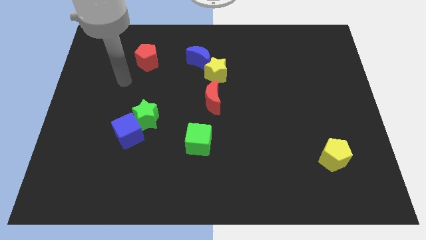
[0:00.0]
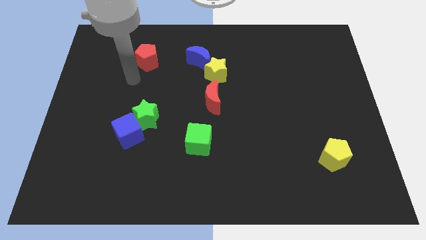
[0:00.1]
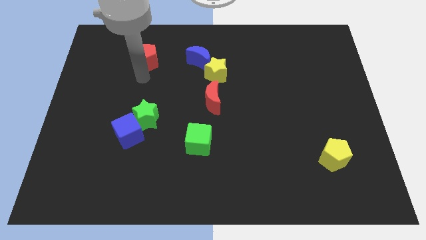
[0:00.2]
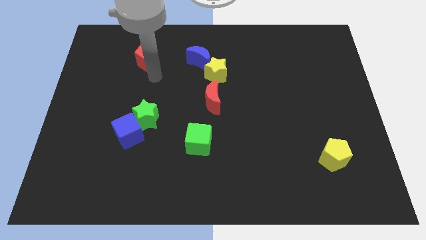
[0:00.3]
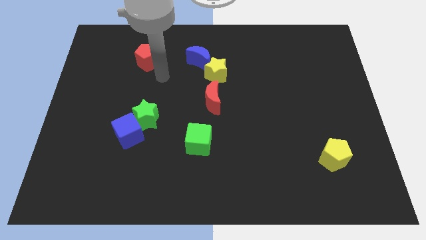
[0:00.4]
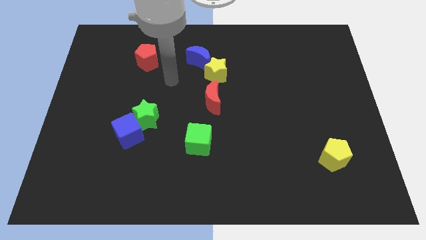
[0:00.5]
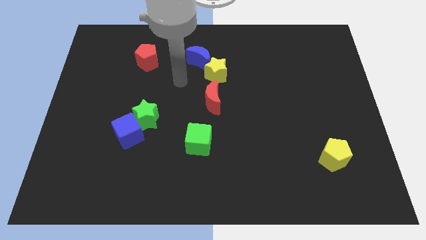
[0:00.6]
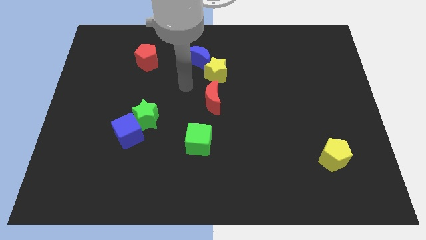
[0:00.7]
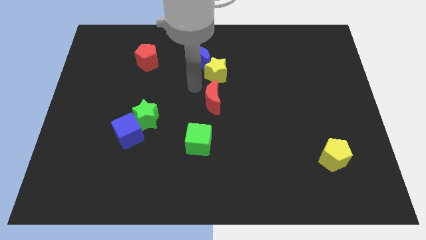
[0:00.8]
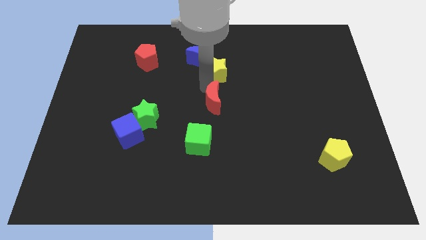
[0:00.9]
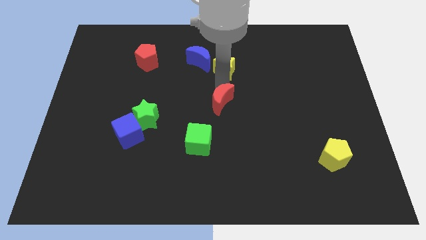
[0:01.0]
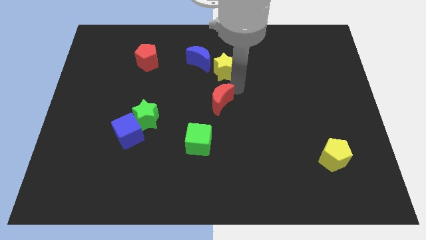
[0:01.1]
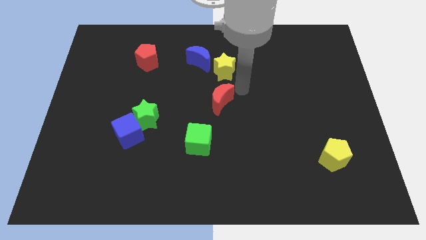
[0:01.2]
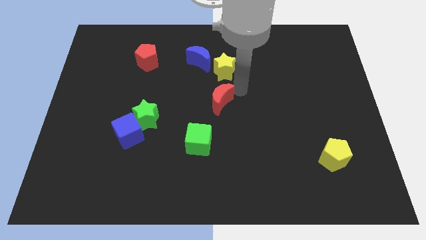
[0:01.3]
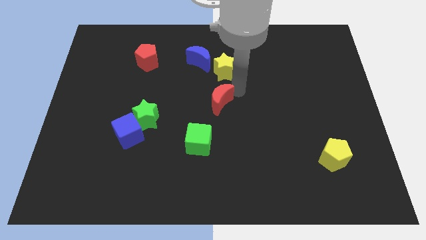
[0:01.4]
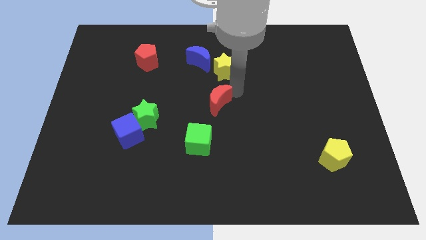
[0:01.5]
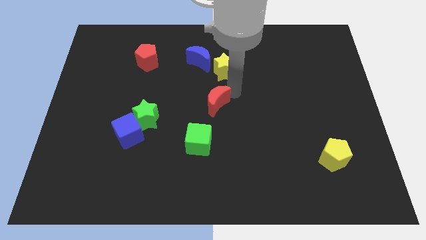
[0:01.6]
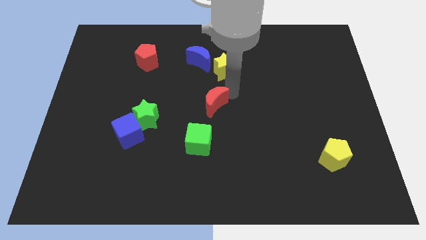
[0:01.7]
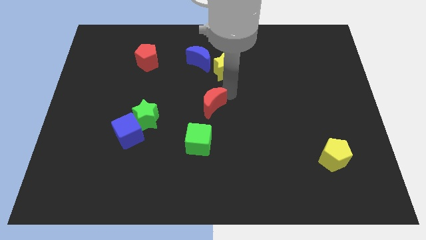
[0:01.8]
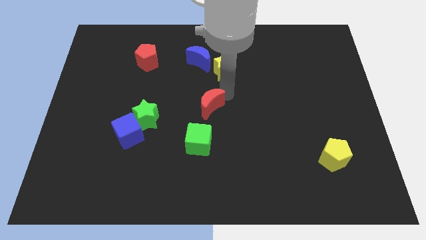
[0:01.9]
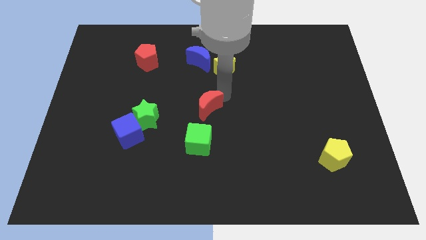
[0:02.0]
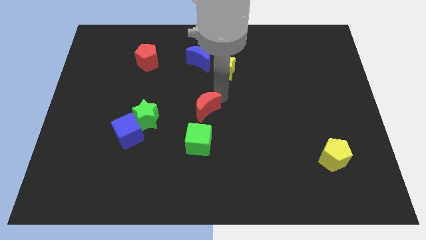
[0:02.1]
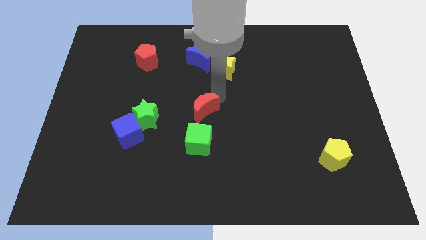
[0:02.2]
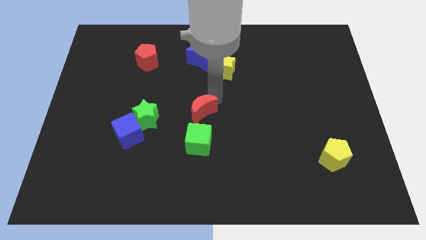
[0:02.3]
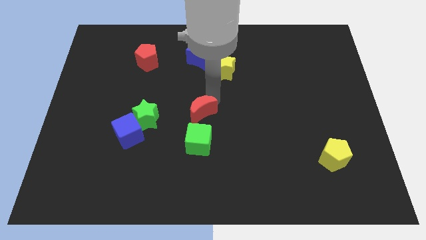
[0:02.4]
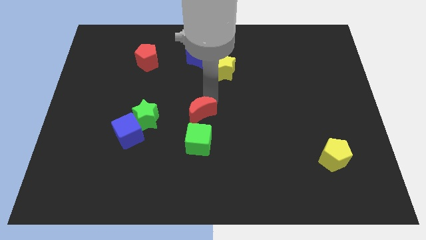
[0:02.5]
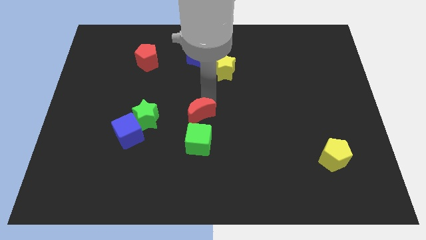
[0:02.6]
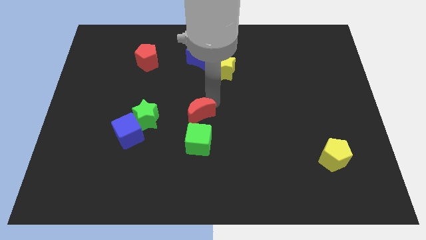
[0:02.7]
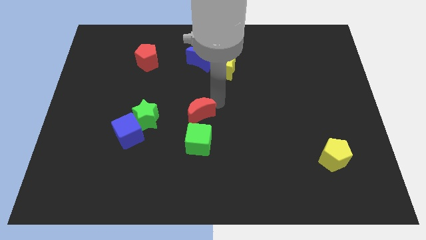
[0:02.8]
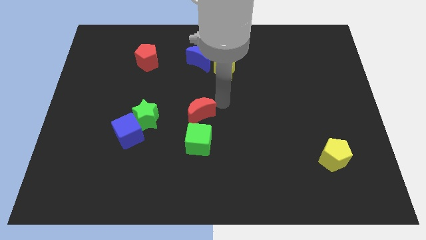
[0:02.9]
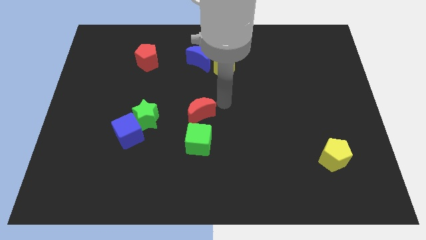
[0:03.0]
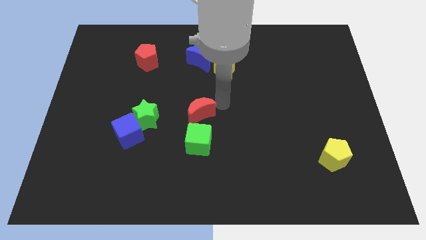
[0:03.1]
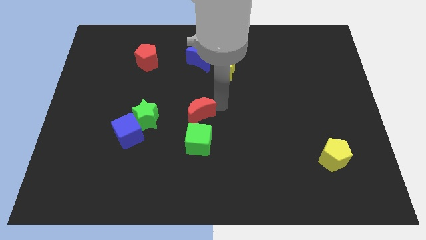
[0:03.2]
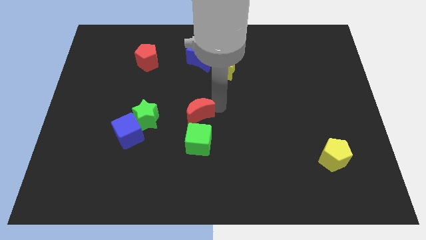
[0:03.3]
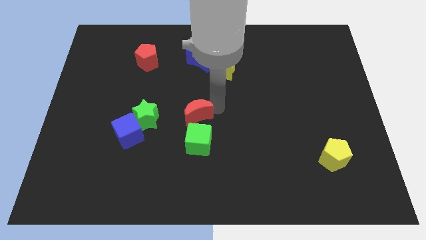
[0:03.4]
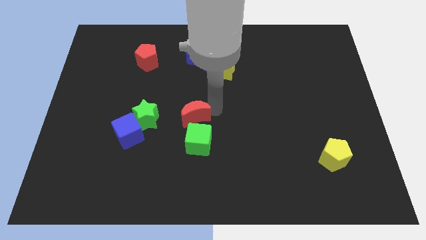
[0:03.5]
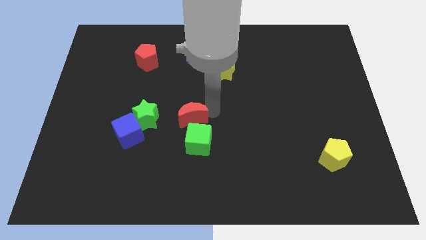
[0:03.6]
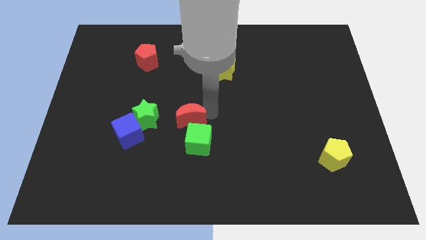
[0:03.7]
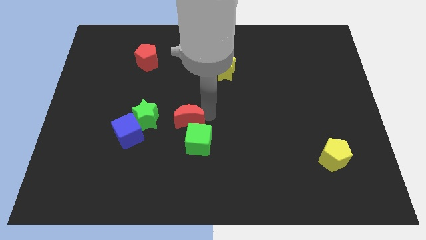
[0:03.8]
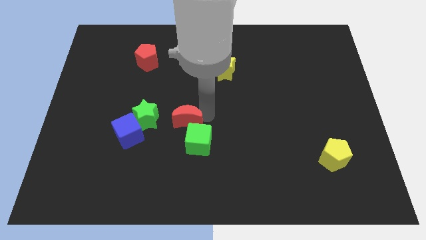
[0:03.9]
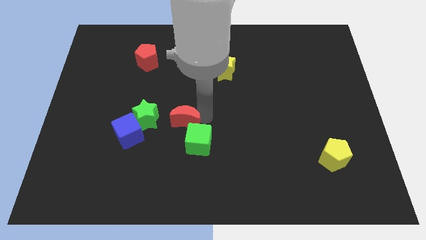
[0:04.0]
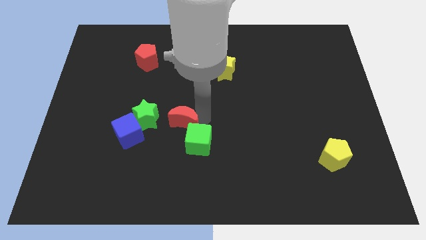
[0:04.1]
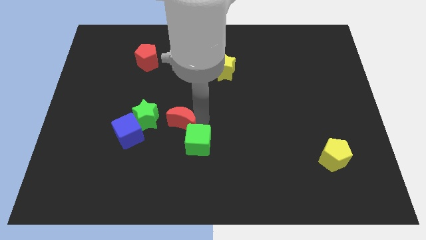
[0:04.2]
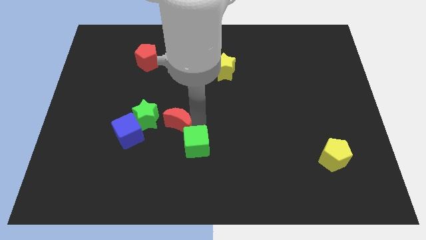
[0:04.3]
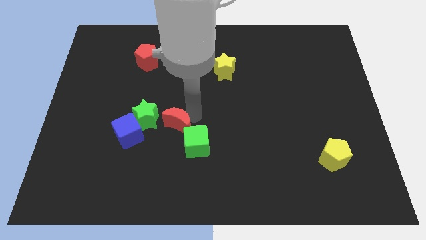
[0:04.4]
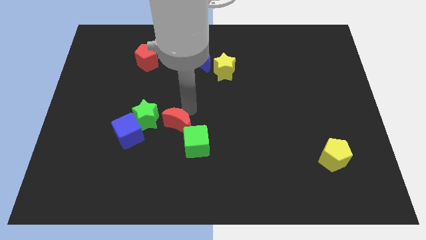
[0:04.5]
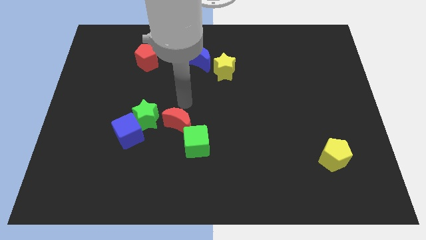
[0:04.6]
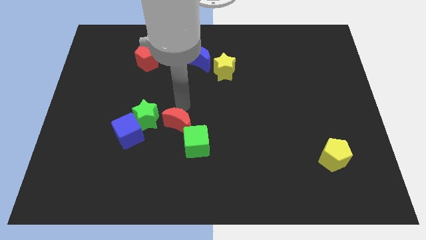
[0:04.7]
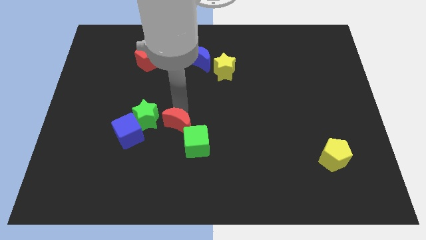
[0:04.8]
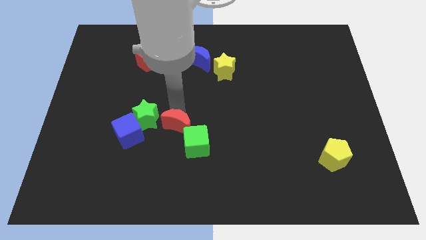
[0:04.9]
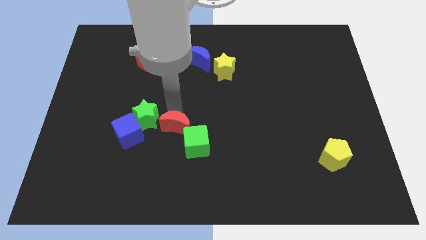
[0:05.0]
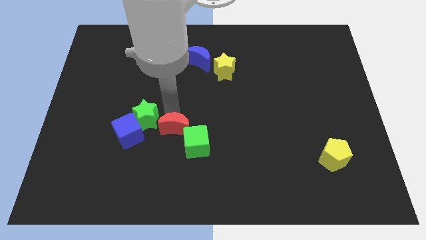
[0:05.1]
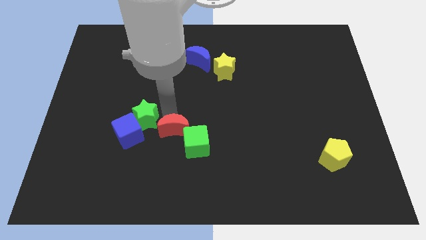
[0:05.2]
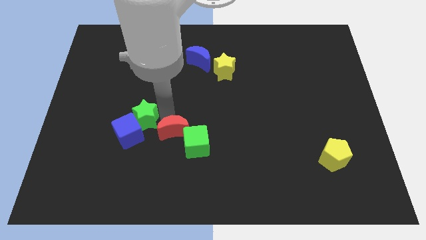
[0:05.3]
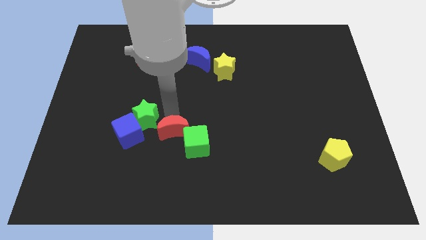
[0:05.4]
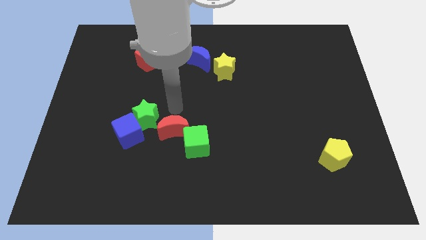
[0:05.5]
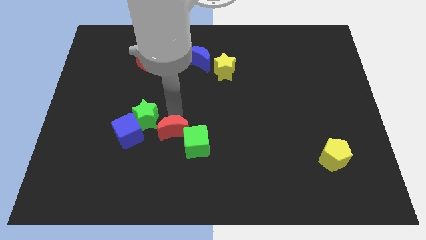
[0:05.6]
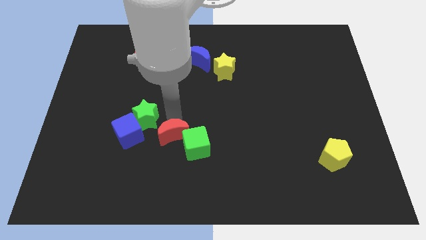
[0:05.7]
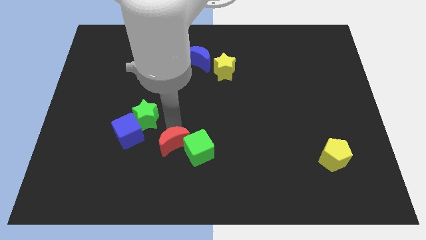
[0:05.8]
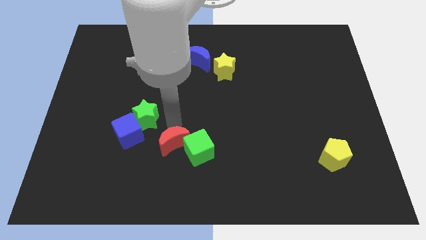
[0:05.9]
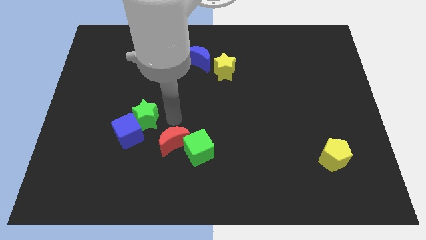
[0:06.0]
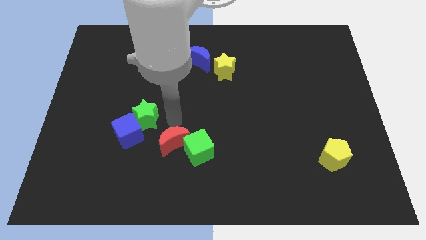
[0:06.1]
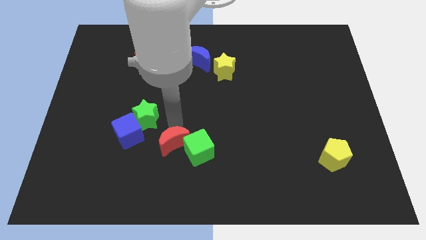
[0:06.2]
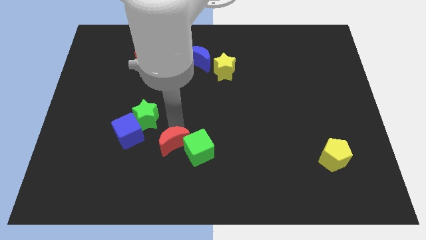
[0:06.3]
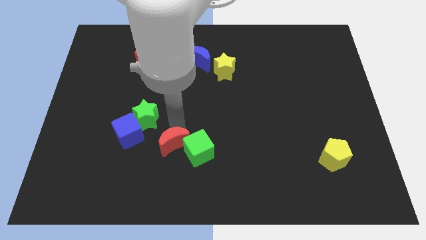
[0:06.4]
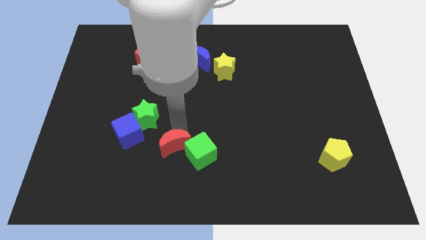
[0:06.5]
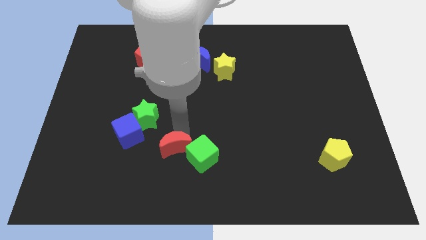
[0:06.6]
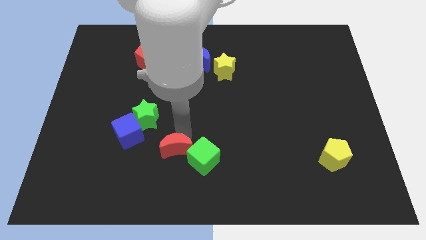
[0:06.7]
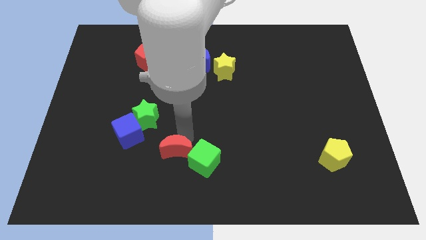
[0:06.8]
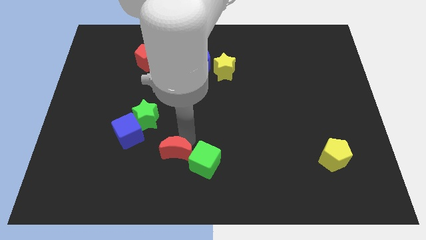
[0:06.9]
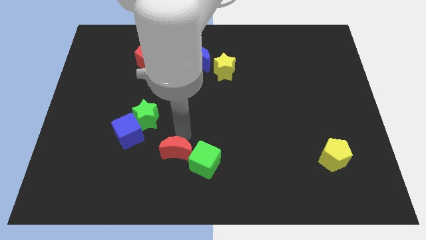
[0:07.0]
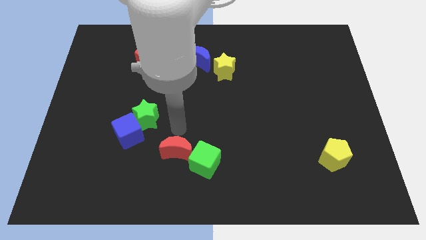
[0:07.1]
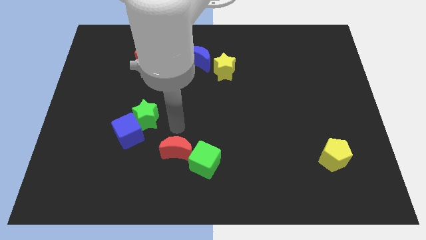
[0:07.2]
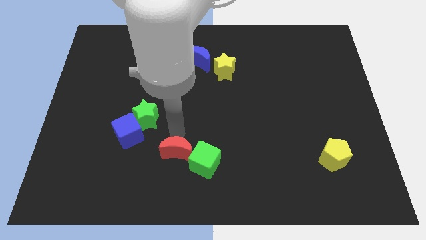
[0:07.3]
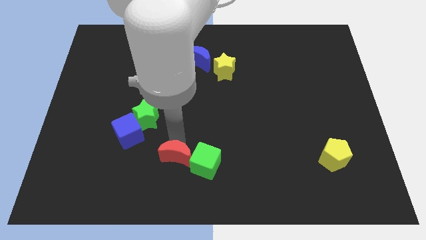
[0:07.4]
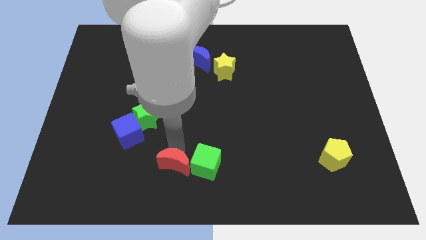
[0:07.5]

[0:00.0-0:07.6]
move the red moon to the bottom left of the green cube

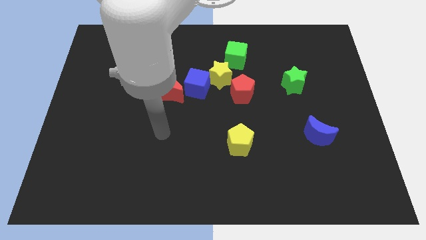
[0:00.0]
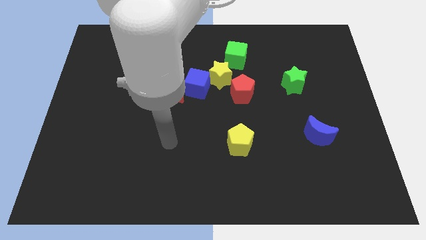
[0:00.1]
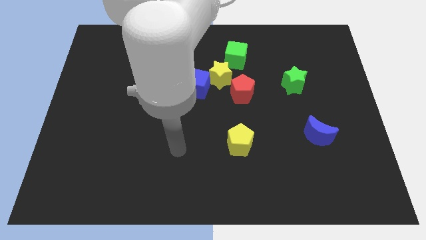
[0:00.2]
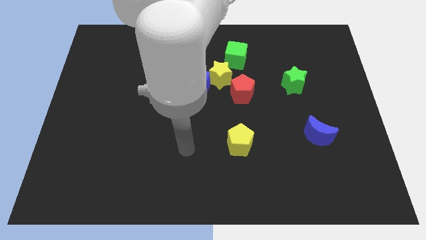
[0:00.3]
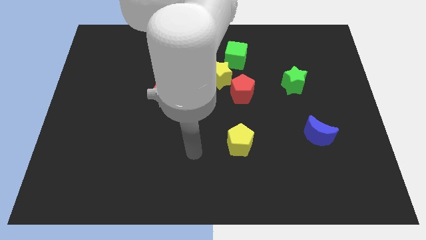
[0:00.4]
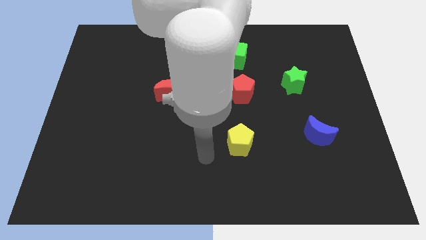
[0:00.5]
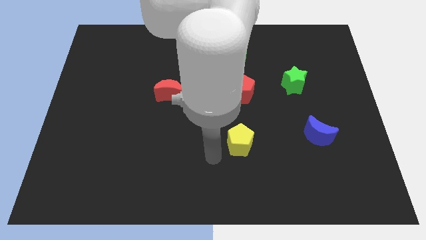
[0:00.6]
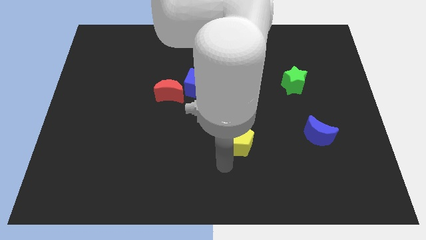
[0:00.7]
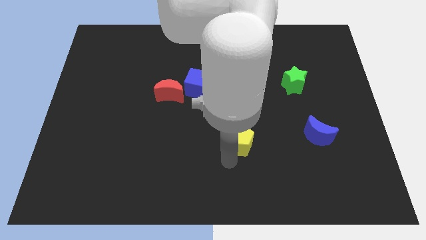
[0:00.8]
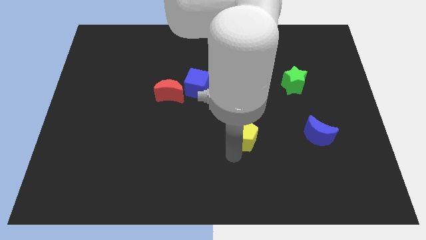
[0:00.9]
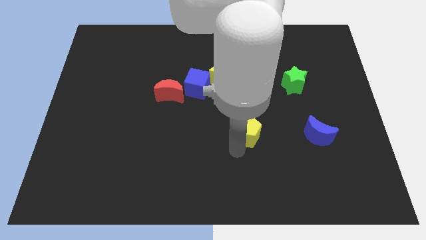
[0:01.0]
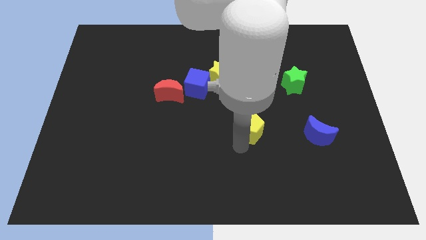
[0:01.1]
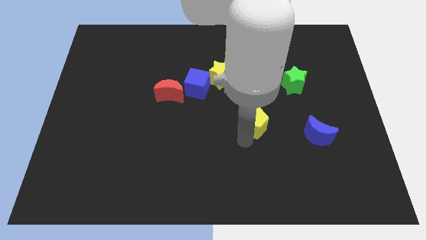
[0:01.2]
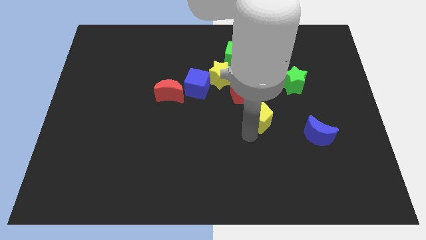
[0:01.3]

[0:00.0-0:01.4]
push the yellow pentagon diagonally down and to the right of the red pentagon
